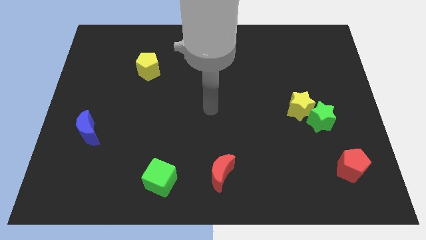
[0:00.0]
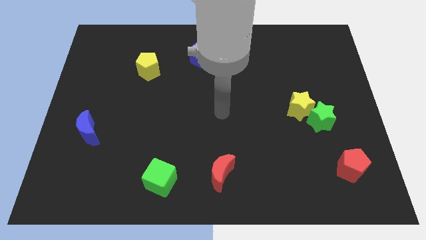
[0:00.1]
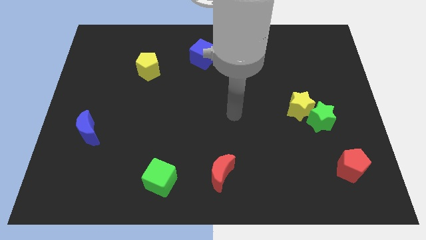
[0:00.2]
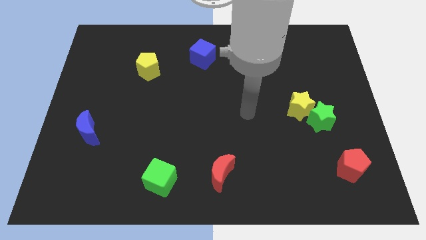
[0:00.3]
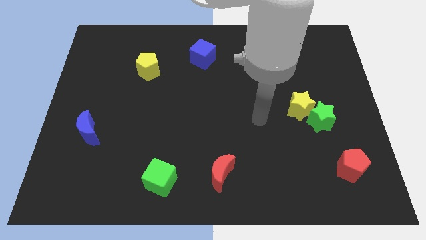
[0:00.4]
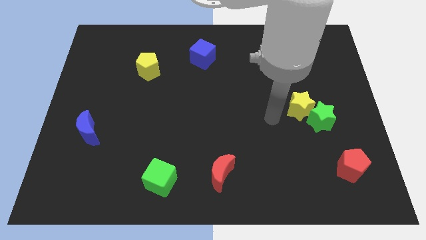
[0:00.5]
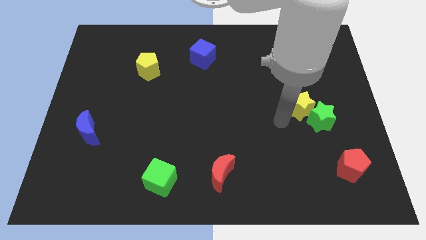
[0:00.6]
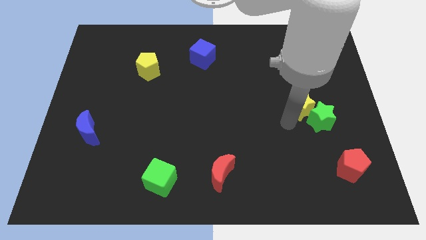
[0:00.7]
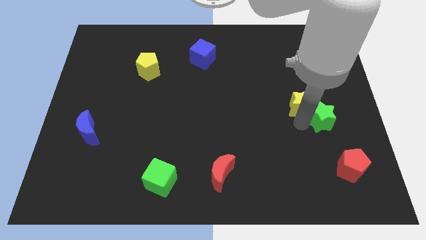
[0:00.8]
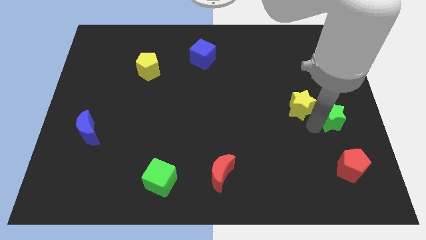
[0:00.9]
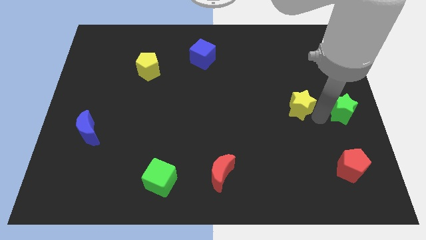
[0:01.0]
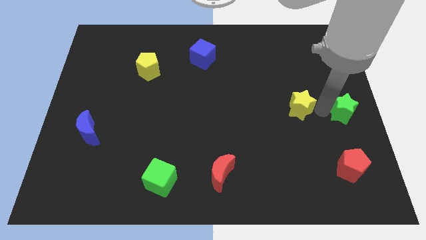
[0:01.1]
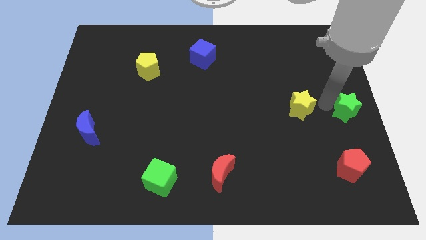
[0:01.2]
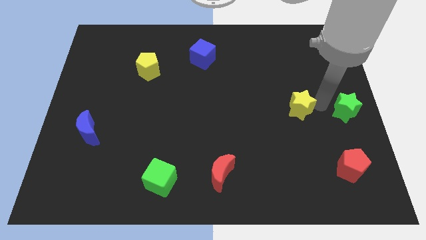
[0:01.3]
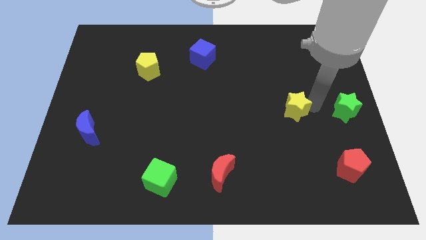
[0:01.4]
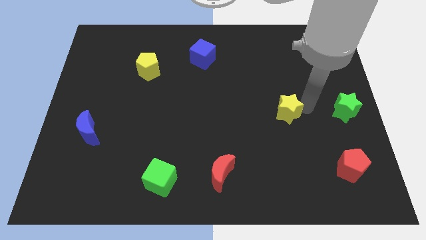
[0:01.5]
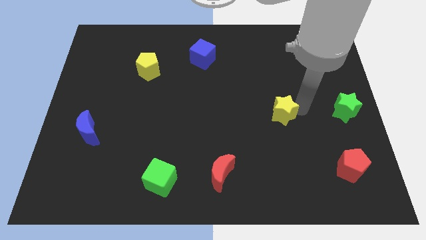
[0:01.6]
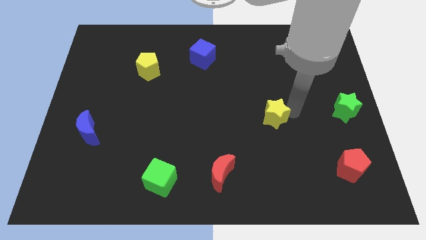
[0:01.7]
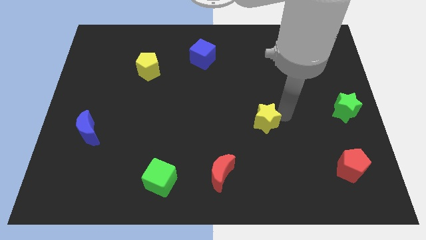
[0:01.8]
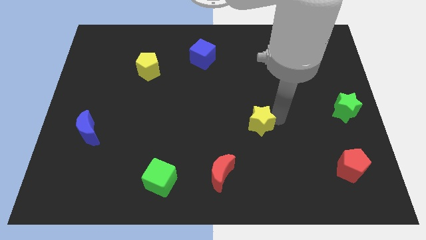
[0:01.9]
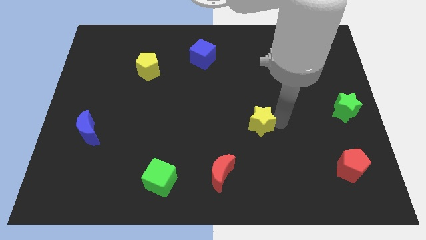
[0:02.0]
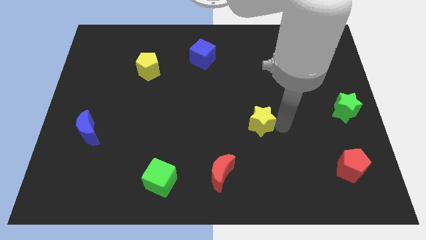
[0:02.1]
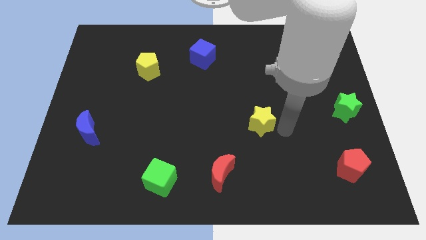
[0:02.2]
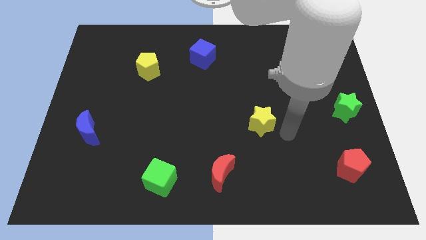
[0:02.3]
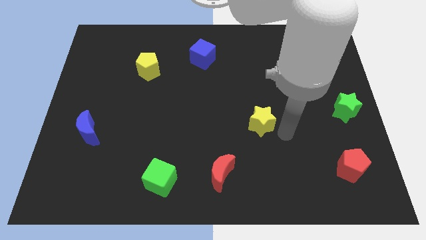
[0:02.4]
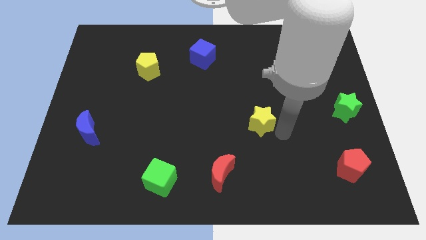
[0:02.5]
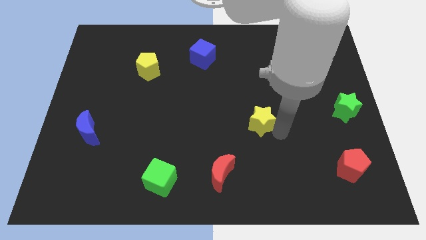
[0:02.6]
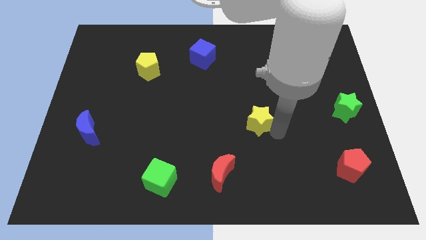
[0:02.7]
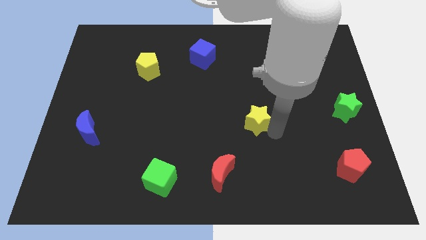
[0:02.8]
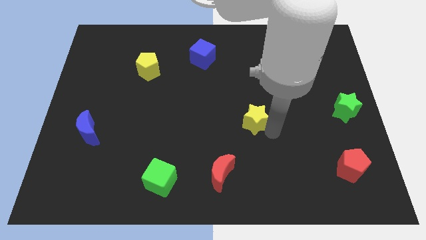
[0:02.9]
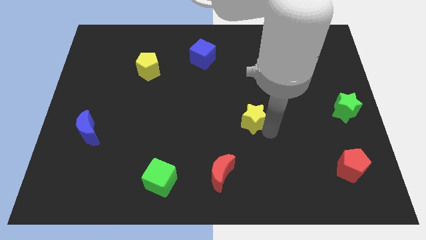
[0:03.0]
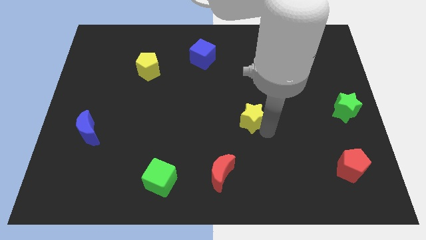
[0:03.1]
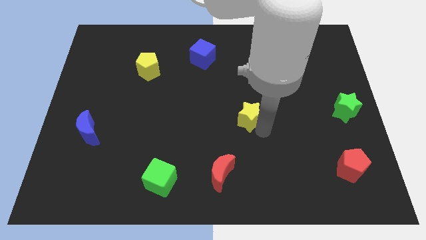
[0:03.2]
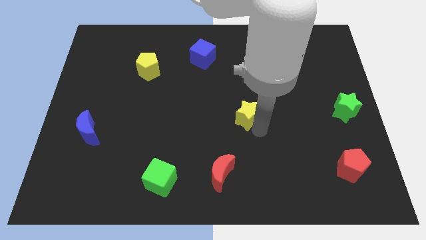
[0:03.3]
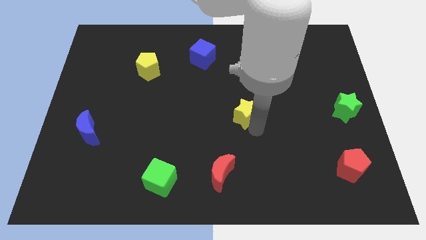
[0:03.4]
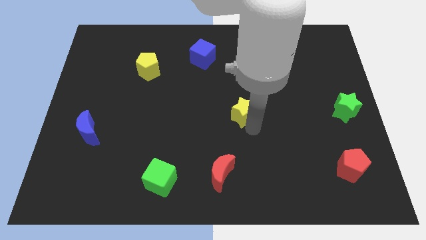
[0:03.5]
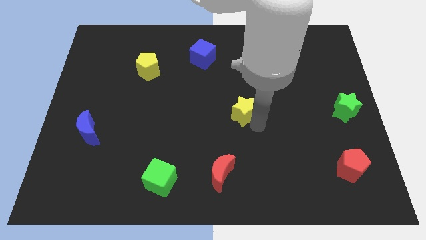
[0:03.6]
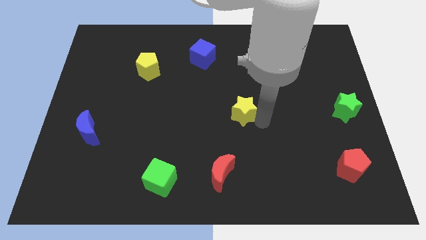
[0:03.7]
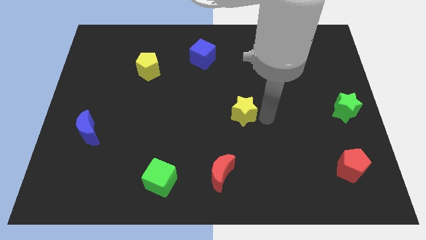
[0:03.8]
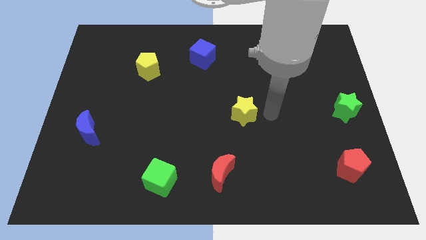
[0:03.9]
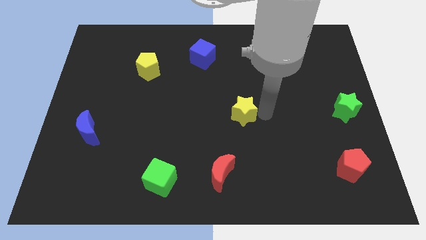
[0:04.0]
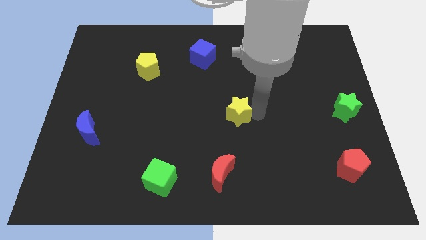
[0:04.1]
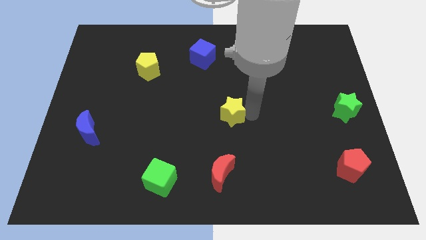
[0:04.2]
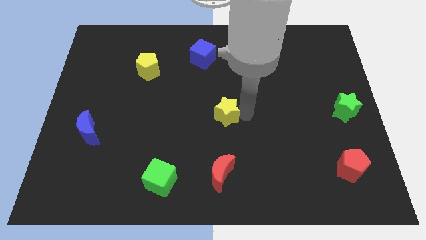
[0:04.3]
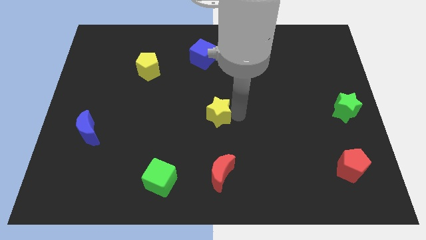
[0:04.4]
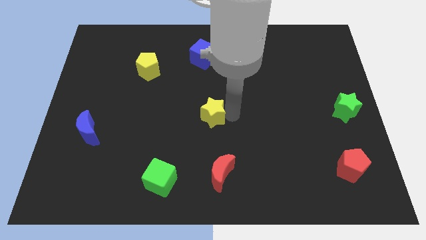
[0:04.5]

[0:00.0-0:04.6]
move the yellow star to the left

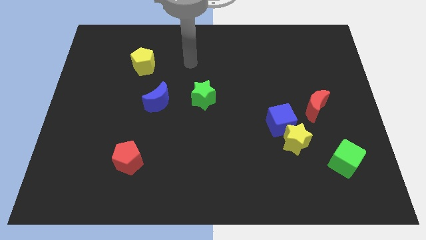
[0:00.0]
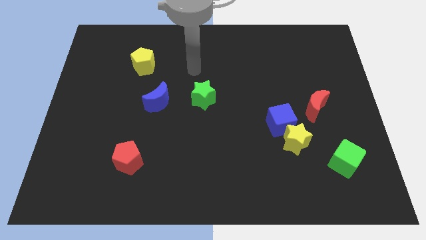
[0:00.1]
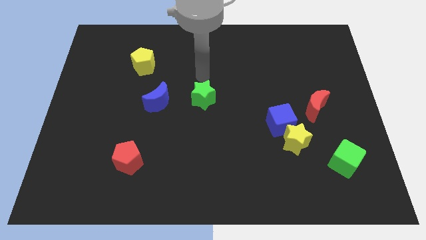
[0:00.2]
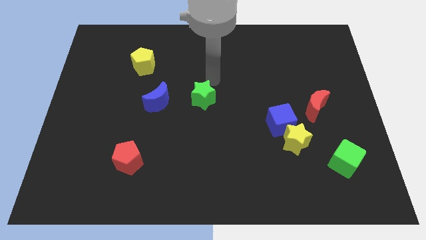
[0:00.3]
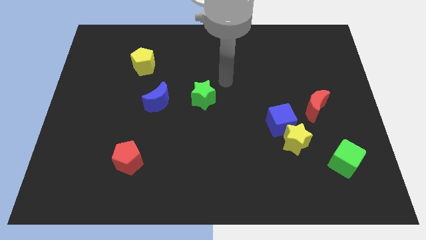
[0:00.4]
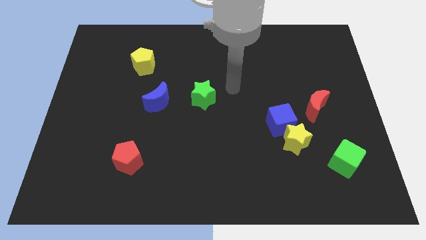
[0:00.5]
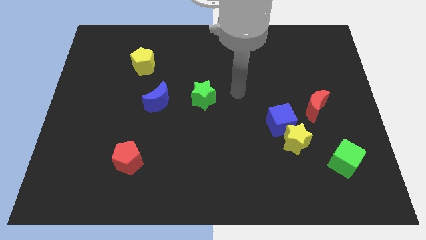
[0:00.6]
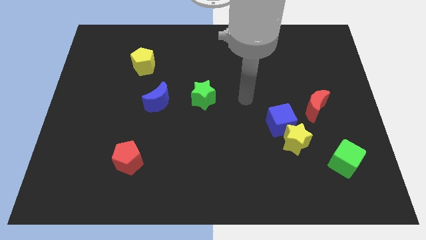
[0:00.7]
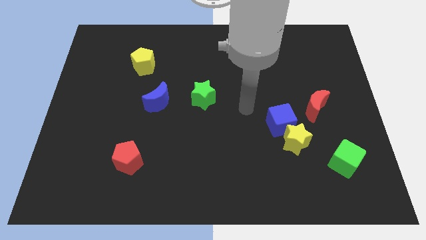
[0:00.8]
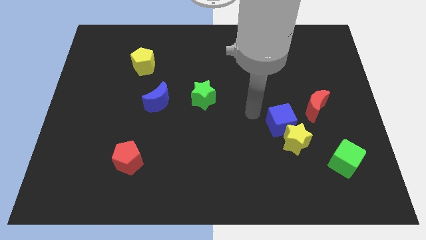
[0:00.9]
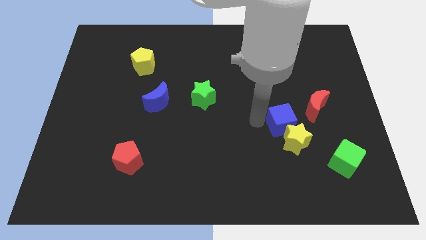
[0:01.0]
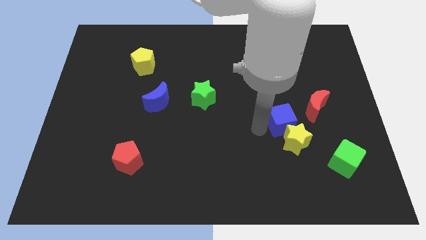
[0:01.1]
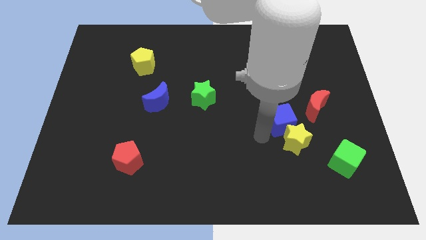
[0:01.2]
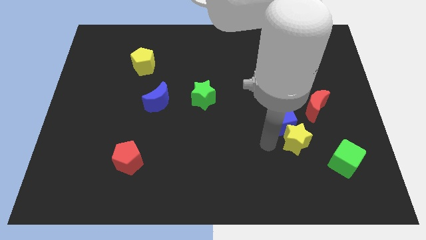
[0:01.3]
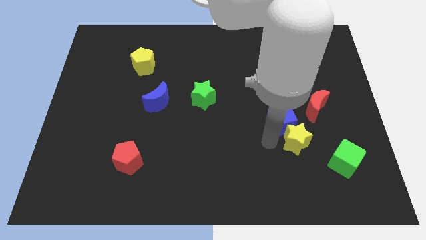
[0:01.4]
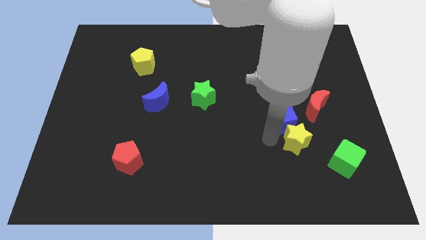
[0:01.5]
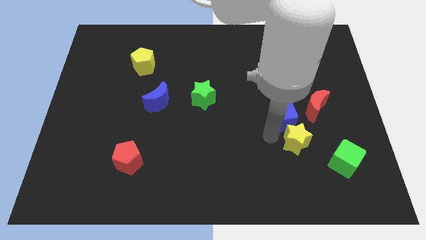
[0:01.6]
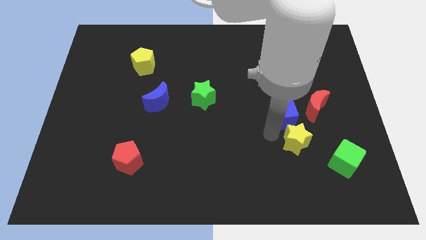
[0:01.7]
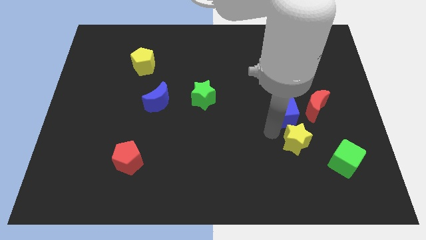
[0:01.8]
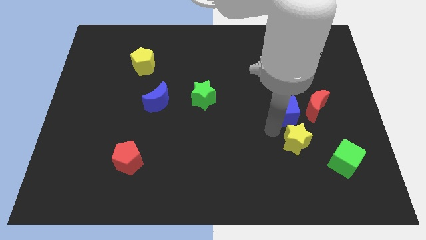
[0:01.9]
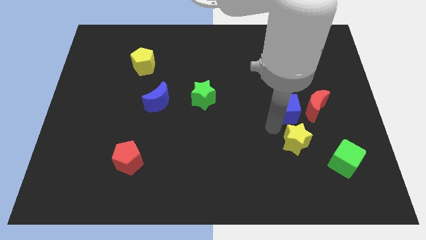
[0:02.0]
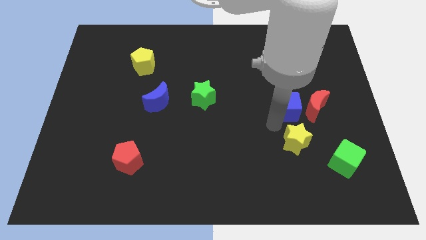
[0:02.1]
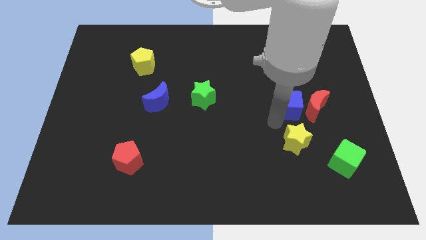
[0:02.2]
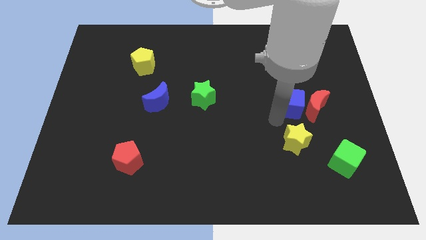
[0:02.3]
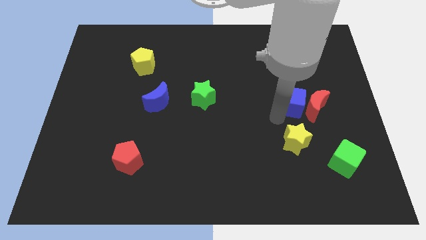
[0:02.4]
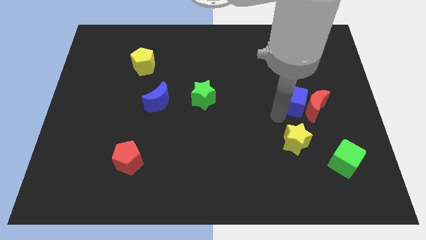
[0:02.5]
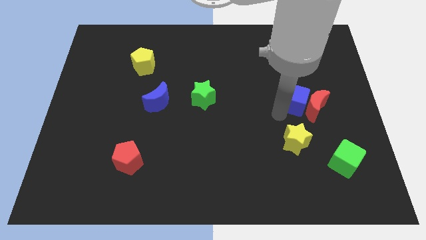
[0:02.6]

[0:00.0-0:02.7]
slightly move the blue cube up and to the right

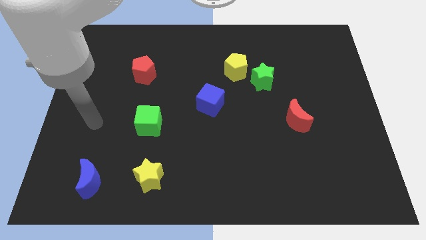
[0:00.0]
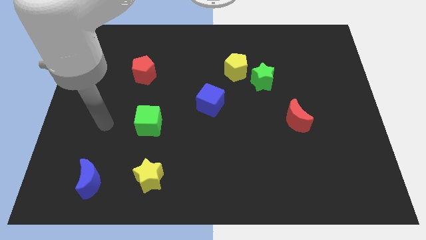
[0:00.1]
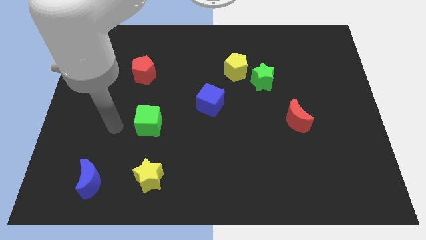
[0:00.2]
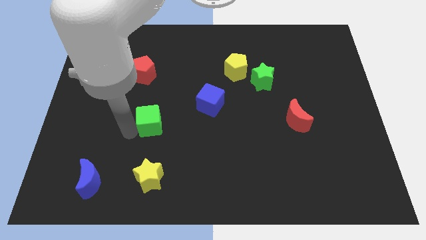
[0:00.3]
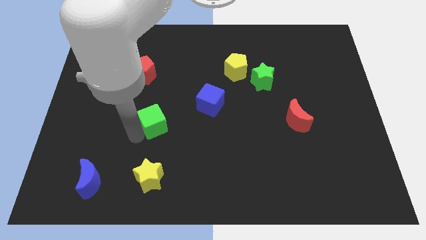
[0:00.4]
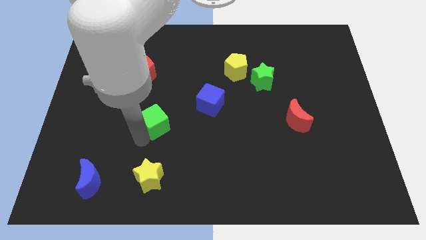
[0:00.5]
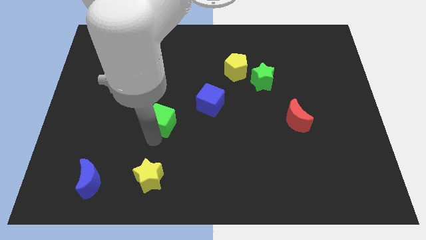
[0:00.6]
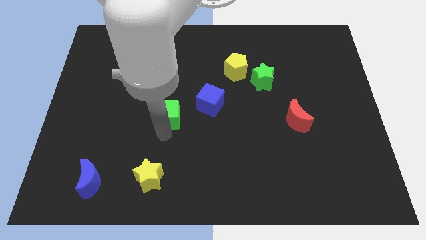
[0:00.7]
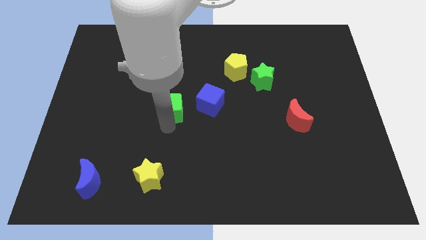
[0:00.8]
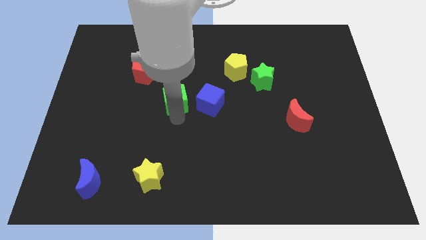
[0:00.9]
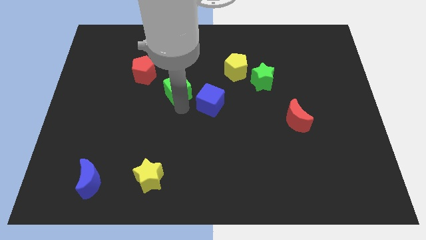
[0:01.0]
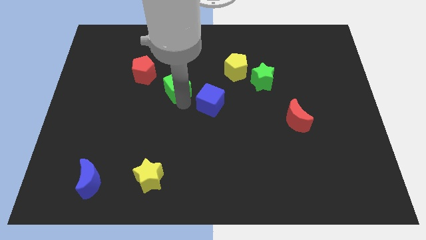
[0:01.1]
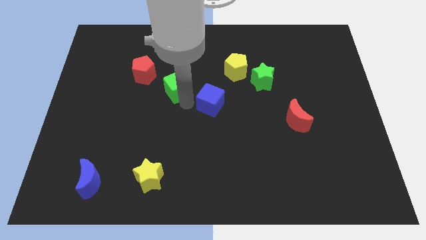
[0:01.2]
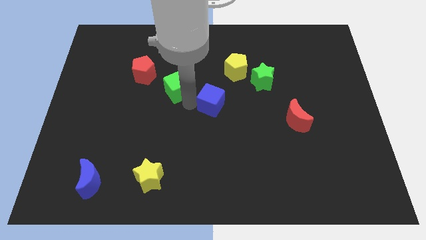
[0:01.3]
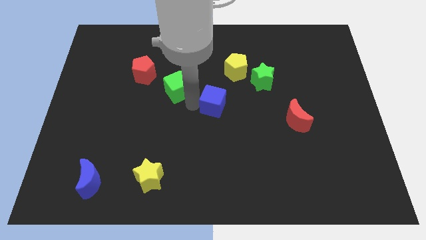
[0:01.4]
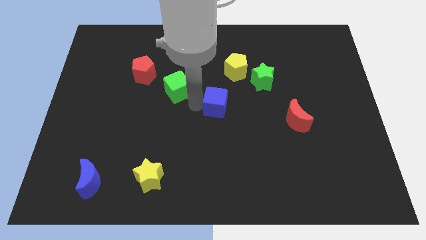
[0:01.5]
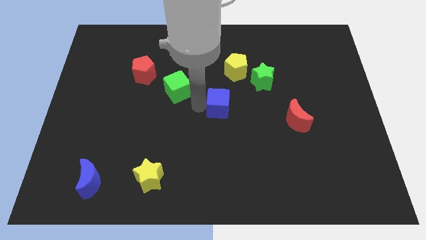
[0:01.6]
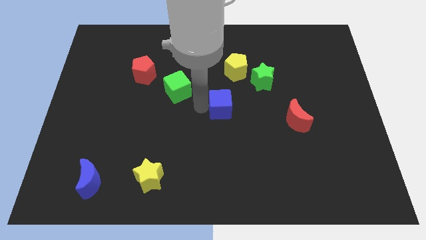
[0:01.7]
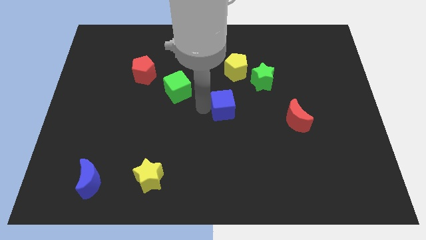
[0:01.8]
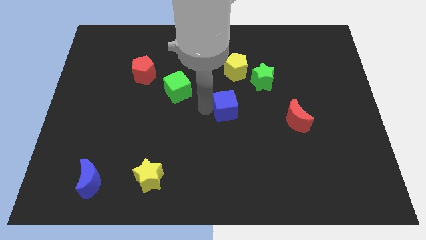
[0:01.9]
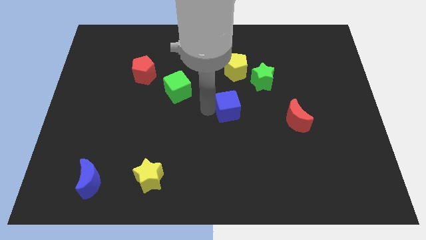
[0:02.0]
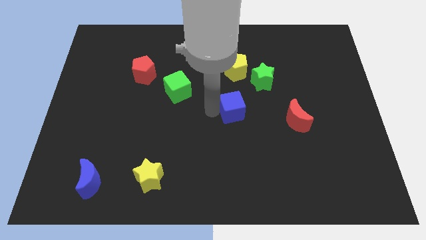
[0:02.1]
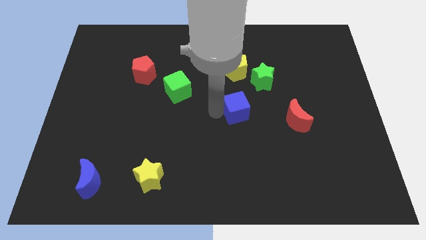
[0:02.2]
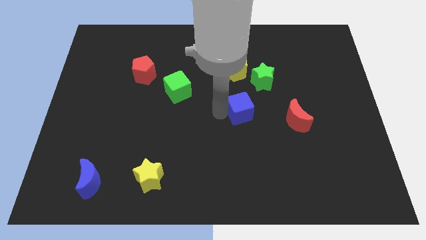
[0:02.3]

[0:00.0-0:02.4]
move the blue cube a little right
